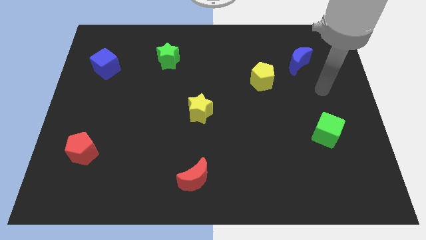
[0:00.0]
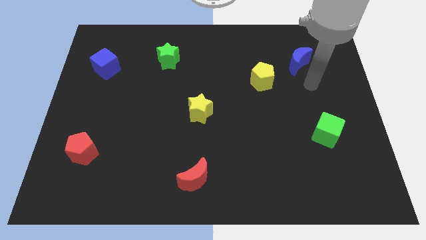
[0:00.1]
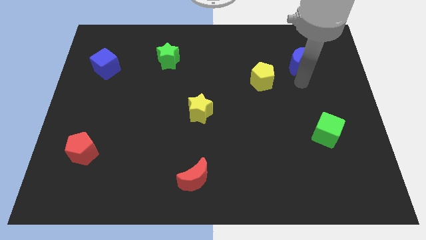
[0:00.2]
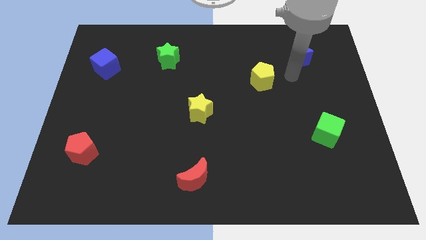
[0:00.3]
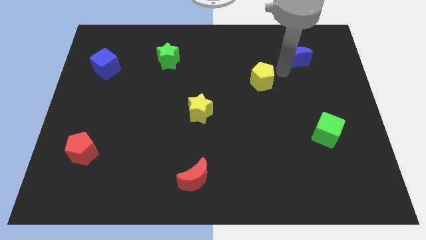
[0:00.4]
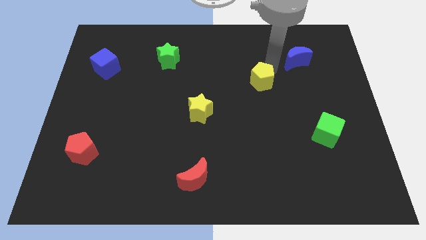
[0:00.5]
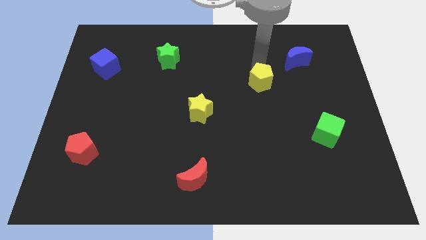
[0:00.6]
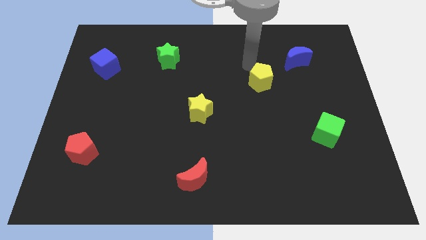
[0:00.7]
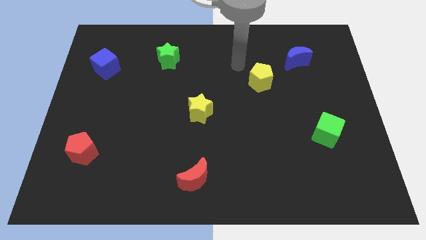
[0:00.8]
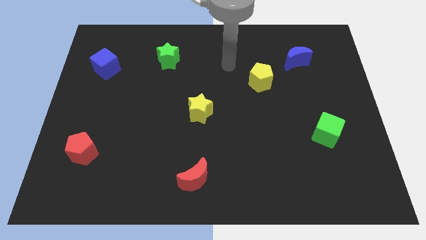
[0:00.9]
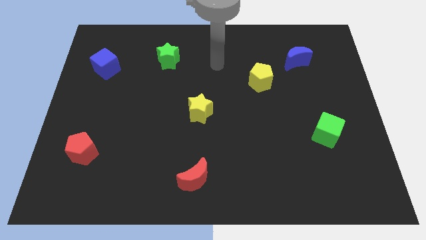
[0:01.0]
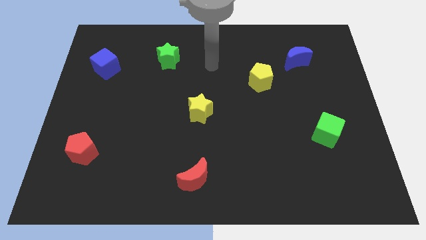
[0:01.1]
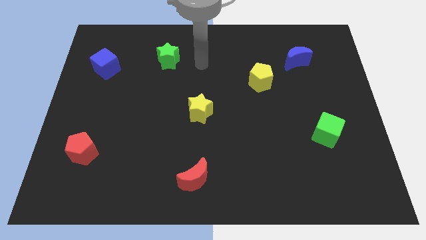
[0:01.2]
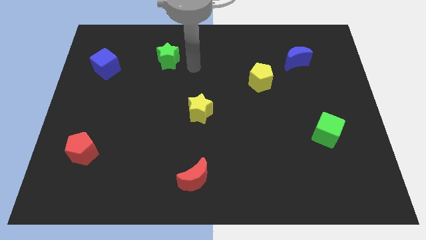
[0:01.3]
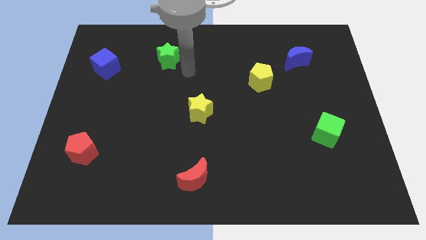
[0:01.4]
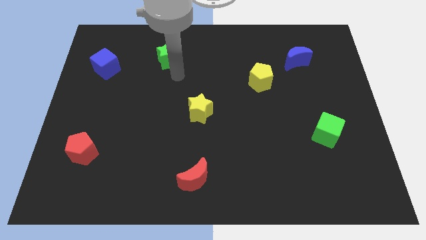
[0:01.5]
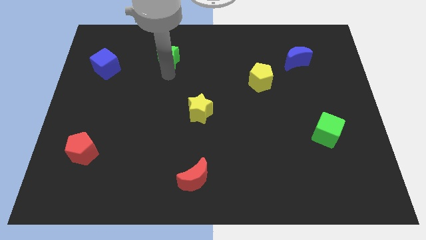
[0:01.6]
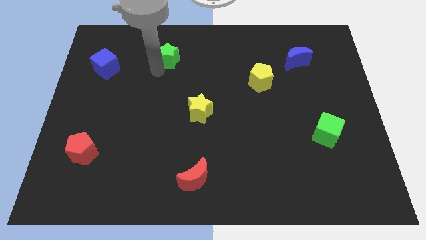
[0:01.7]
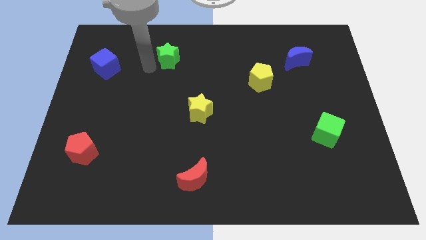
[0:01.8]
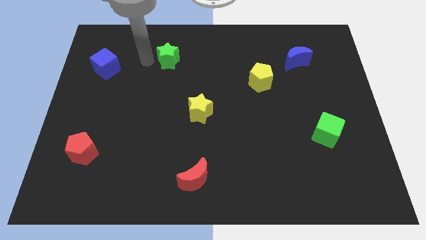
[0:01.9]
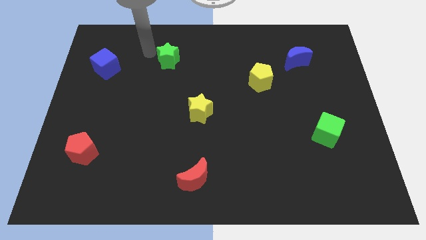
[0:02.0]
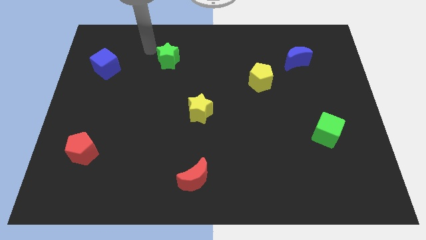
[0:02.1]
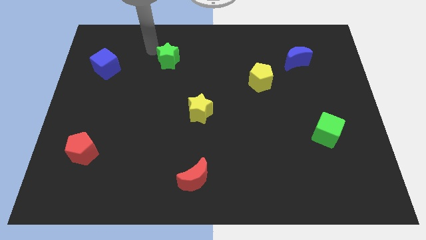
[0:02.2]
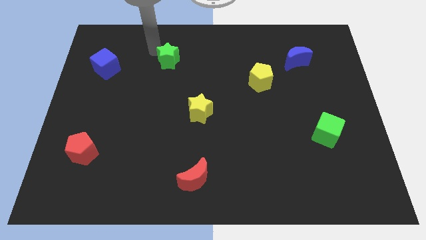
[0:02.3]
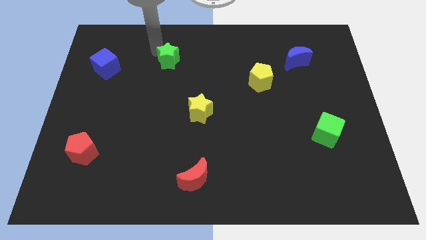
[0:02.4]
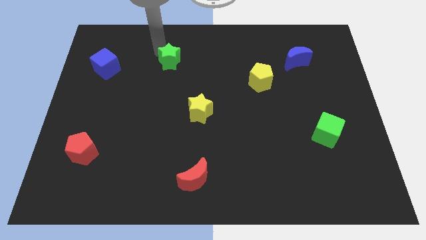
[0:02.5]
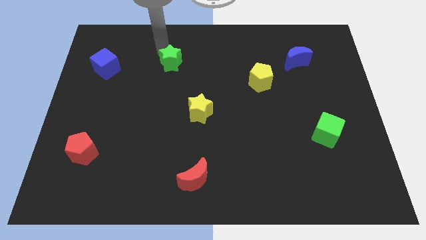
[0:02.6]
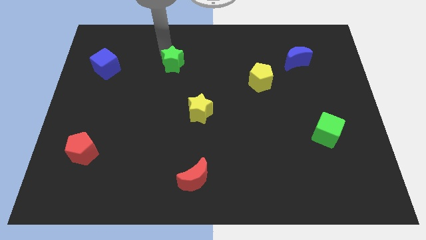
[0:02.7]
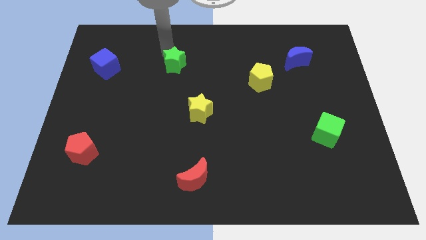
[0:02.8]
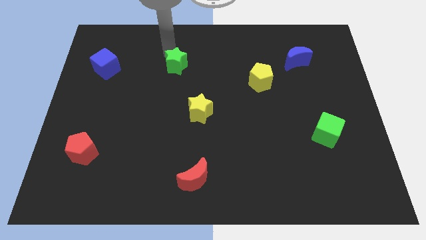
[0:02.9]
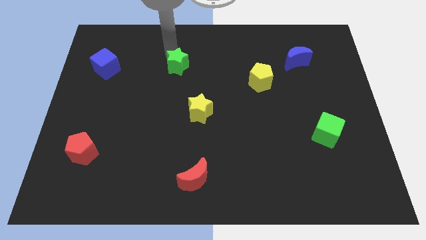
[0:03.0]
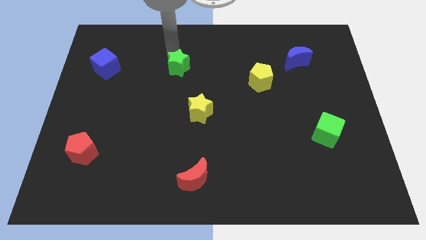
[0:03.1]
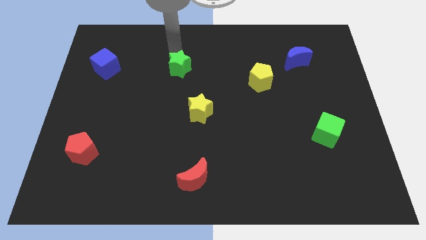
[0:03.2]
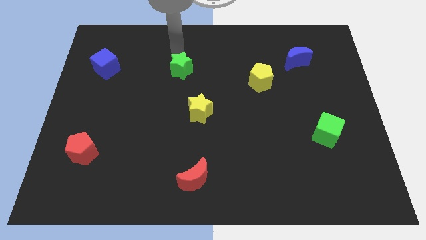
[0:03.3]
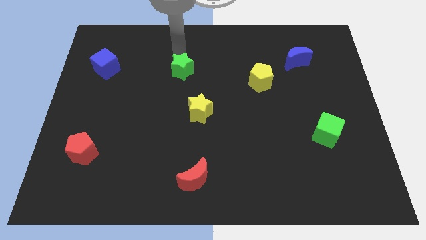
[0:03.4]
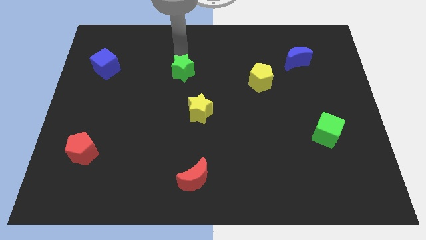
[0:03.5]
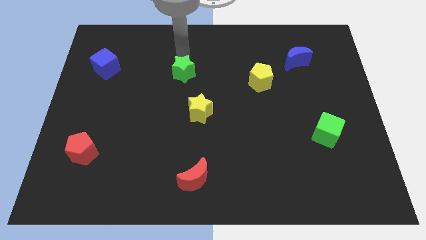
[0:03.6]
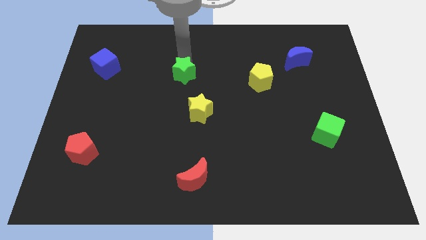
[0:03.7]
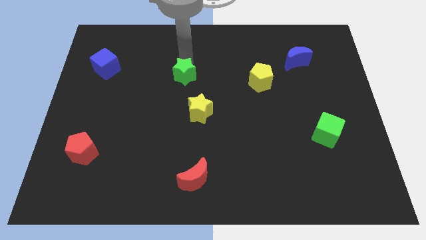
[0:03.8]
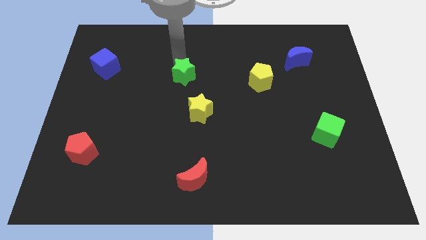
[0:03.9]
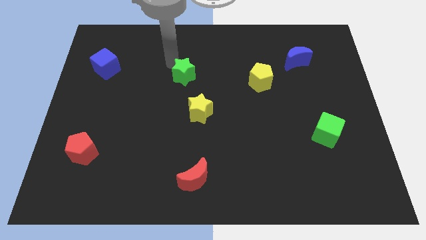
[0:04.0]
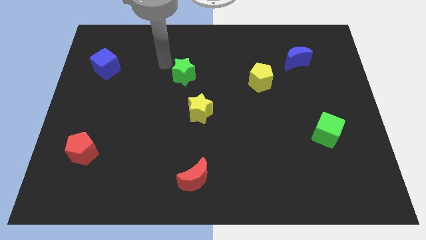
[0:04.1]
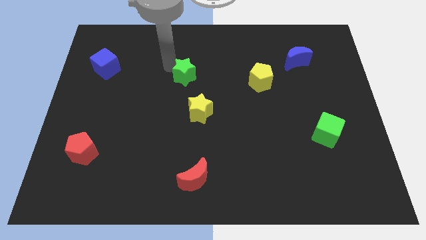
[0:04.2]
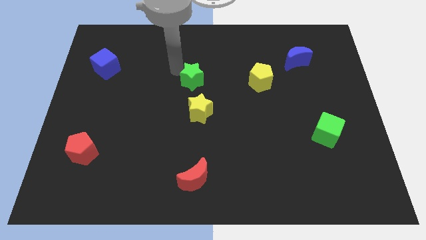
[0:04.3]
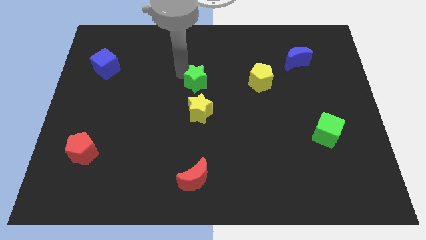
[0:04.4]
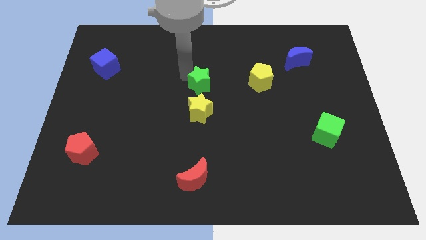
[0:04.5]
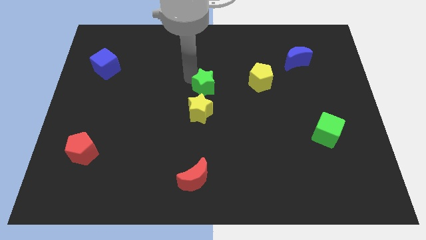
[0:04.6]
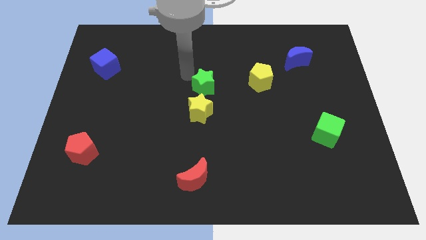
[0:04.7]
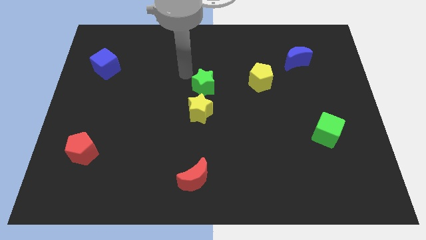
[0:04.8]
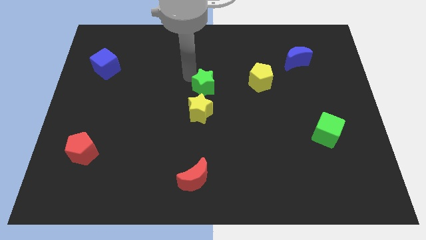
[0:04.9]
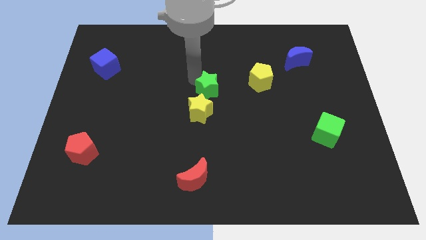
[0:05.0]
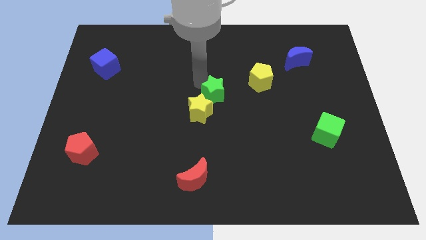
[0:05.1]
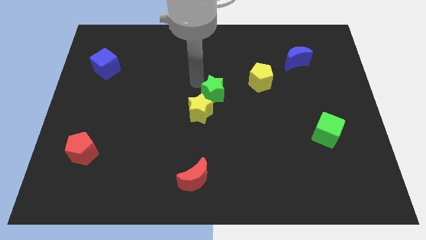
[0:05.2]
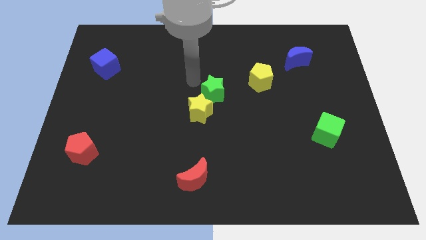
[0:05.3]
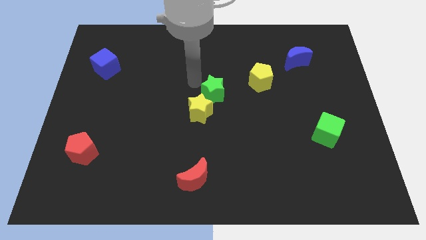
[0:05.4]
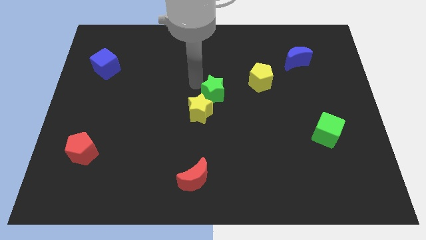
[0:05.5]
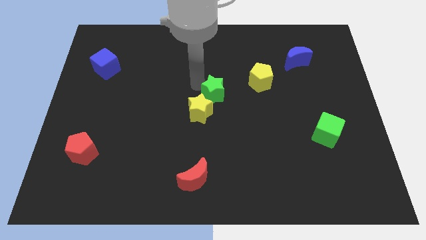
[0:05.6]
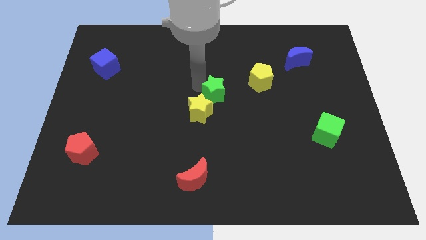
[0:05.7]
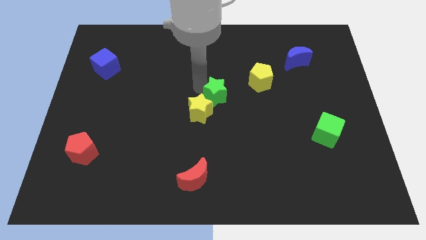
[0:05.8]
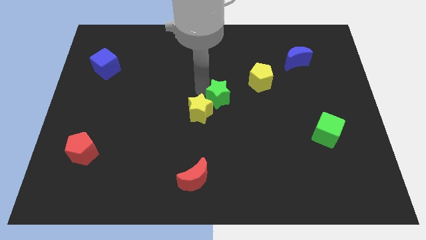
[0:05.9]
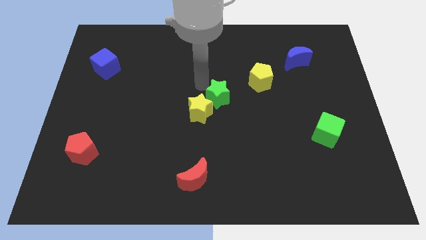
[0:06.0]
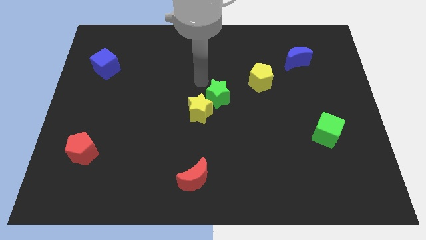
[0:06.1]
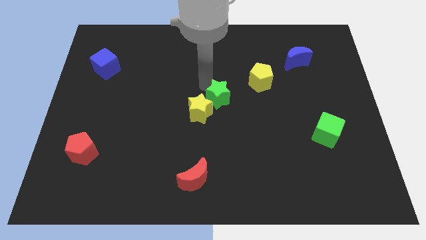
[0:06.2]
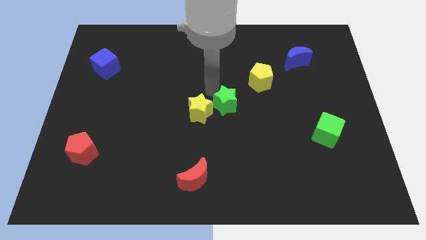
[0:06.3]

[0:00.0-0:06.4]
push the green star diagonally downwards and to the right

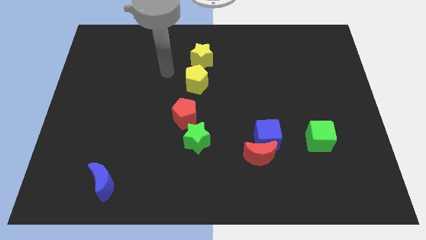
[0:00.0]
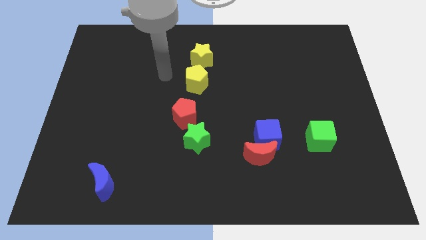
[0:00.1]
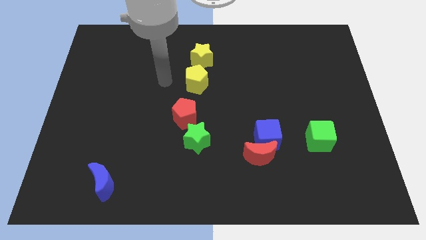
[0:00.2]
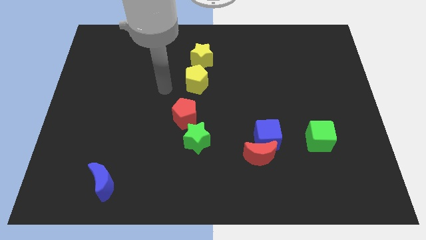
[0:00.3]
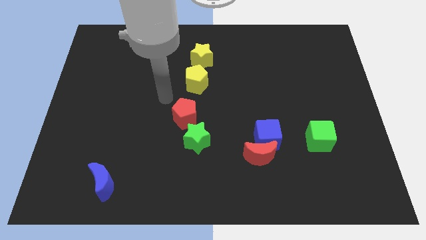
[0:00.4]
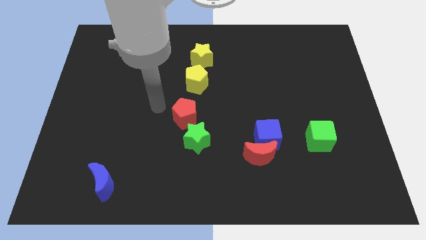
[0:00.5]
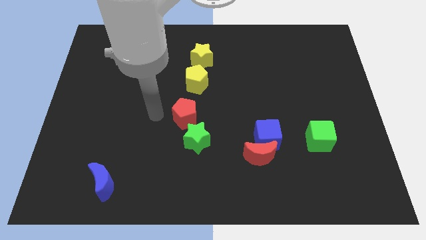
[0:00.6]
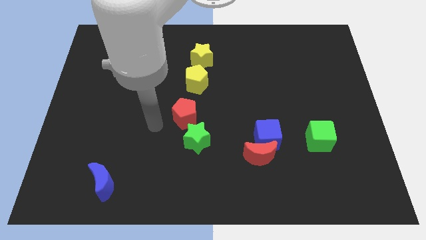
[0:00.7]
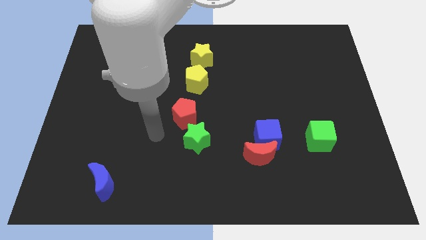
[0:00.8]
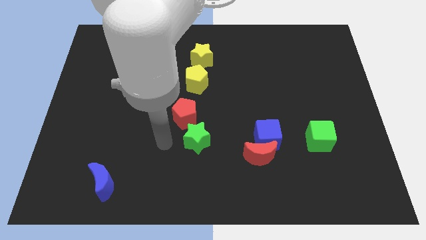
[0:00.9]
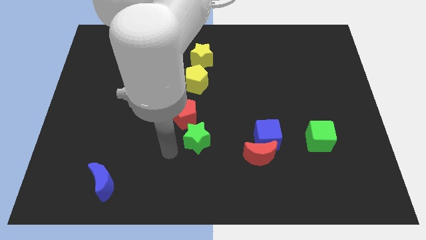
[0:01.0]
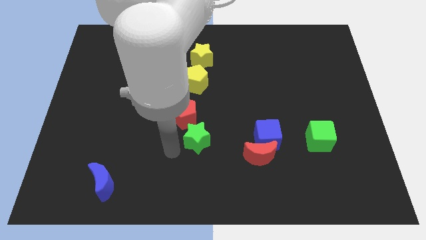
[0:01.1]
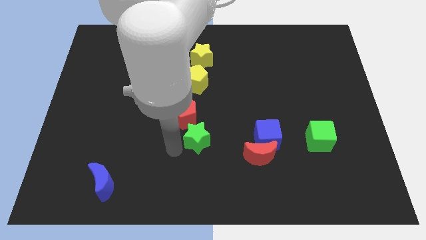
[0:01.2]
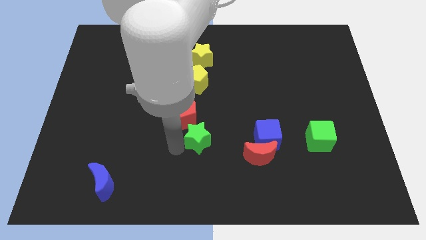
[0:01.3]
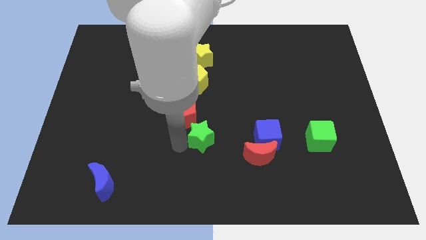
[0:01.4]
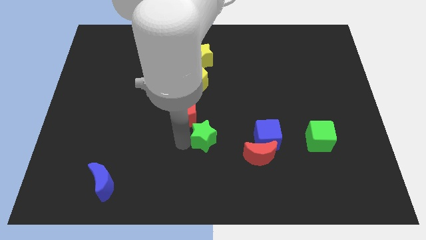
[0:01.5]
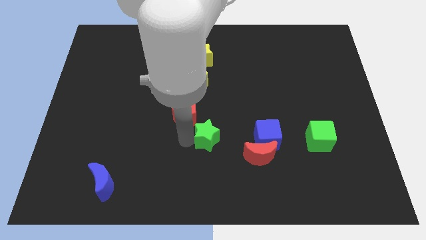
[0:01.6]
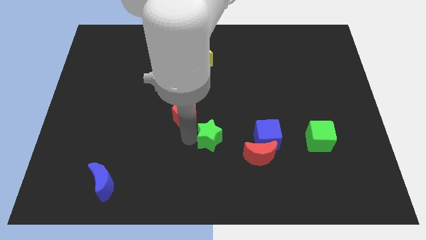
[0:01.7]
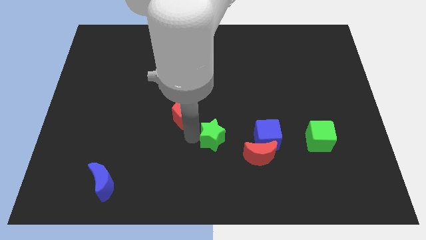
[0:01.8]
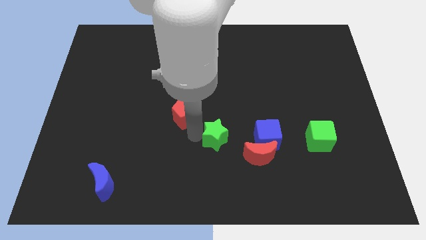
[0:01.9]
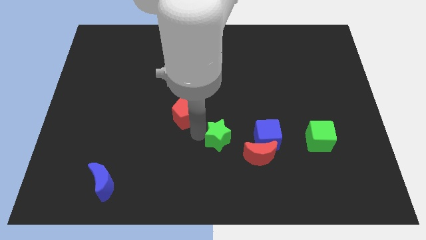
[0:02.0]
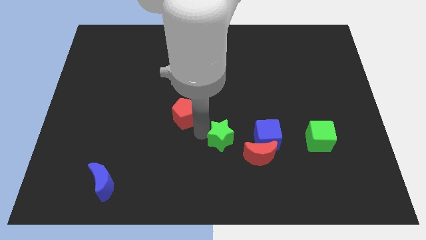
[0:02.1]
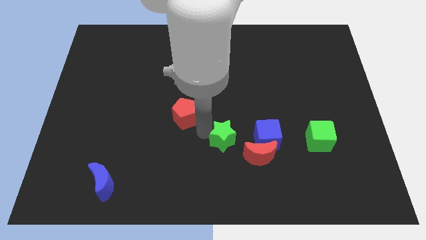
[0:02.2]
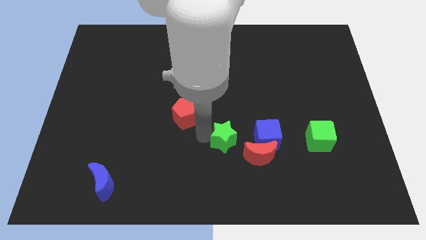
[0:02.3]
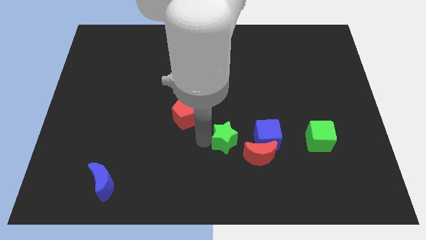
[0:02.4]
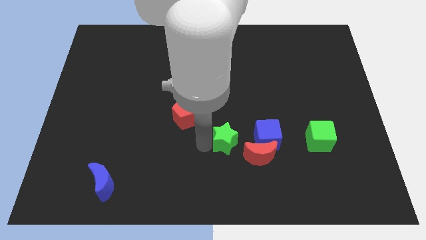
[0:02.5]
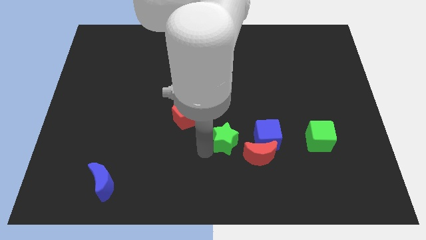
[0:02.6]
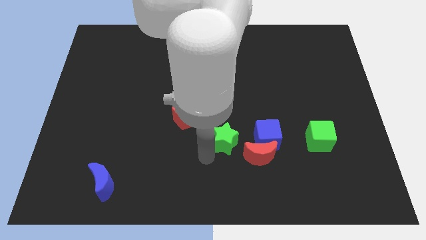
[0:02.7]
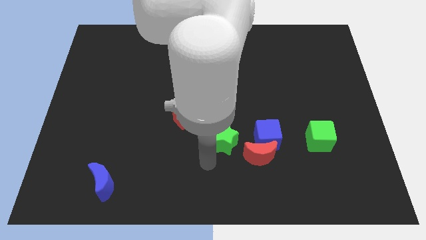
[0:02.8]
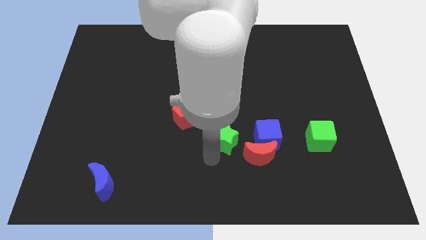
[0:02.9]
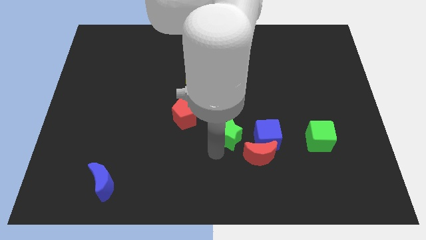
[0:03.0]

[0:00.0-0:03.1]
slightly push the green star to the right
